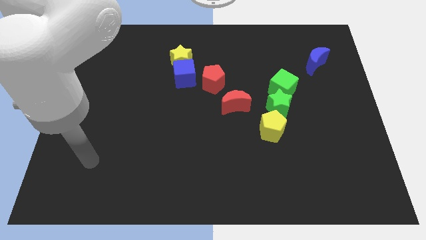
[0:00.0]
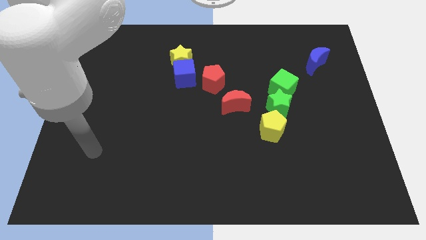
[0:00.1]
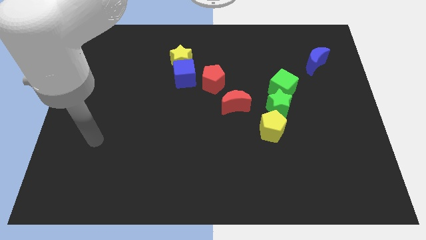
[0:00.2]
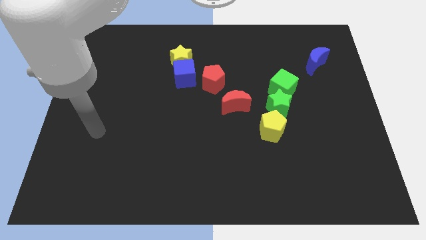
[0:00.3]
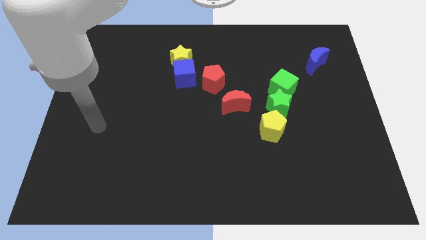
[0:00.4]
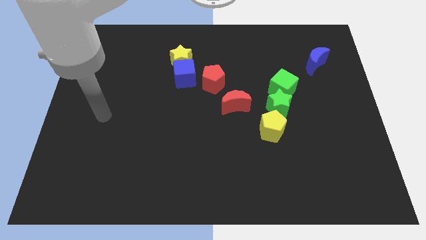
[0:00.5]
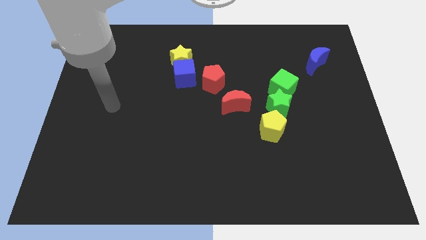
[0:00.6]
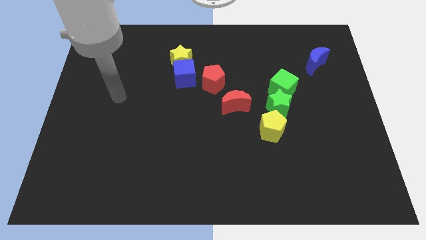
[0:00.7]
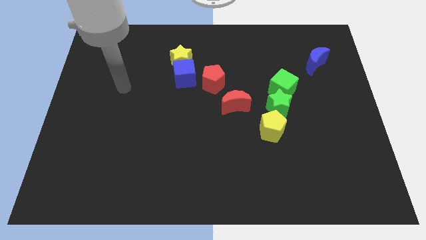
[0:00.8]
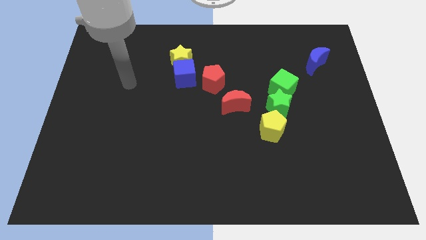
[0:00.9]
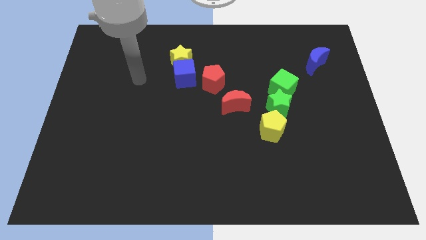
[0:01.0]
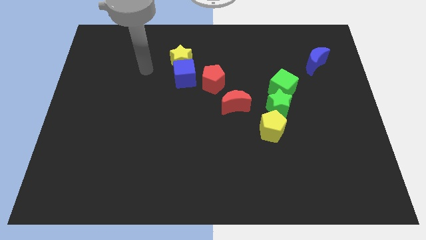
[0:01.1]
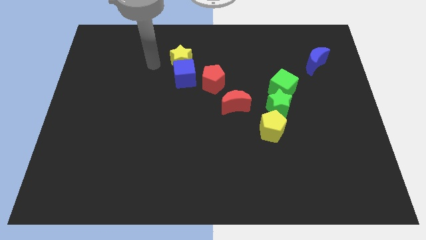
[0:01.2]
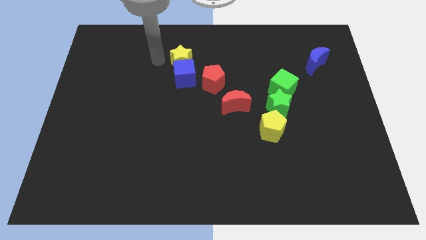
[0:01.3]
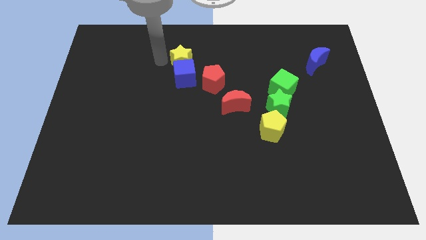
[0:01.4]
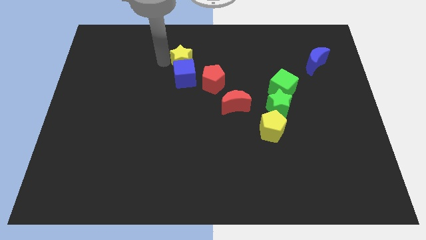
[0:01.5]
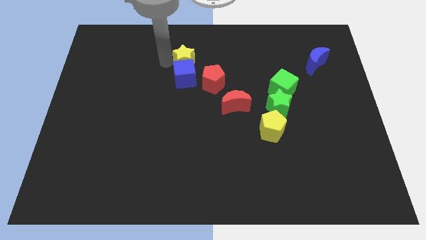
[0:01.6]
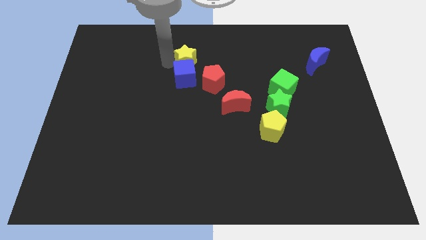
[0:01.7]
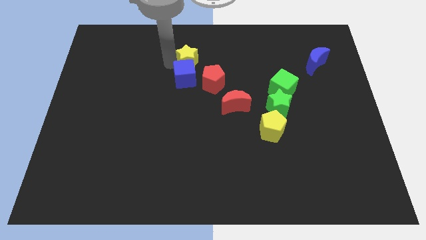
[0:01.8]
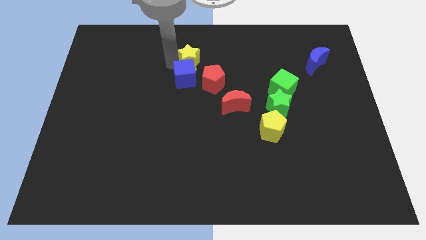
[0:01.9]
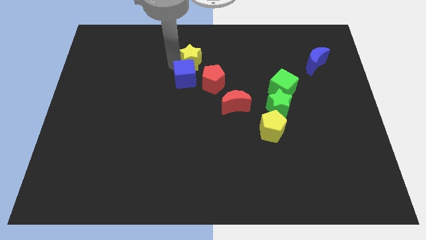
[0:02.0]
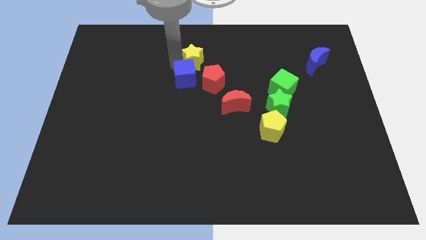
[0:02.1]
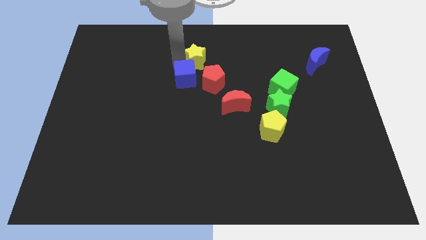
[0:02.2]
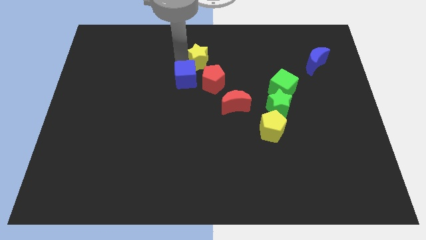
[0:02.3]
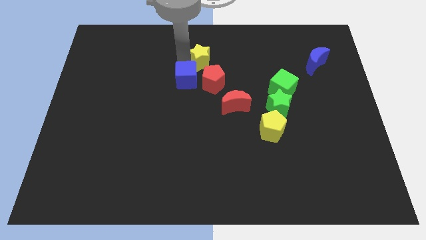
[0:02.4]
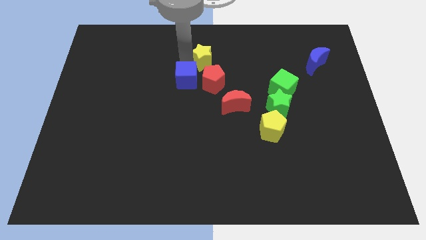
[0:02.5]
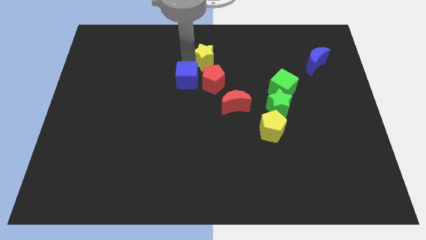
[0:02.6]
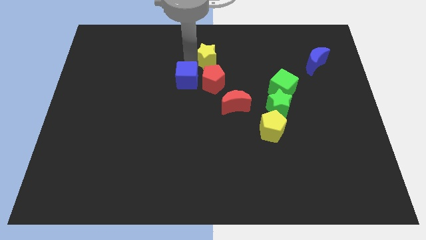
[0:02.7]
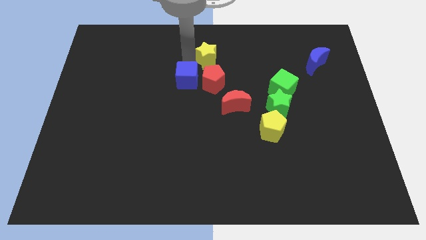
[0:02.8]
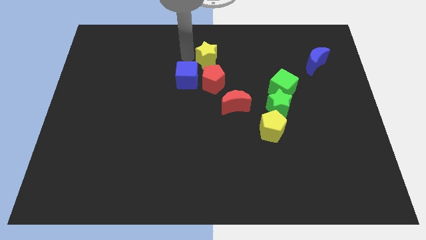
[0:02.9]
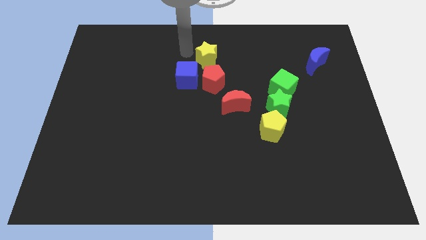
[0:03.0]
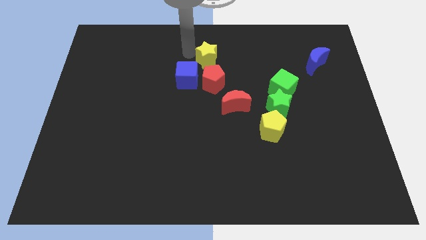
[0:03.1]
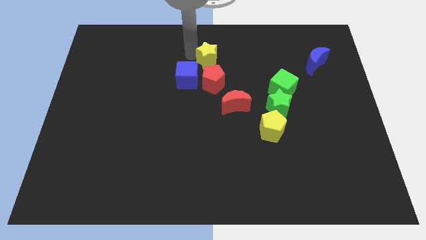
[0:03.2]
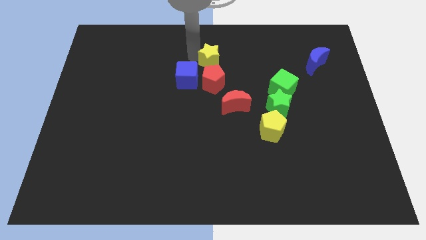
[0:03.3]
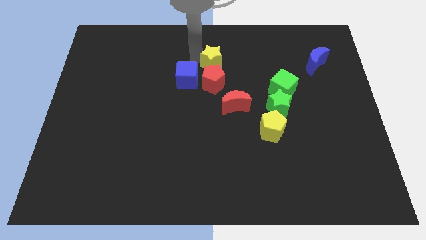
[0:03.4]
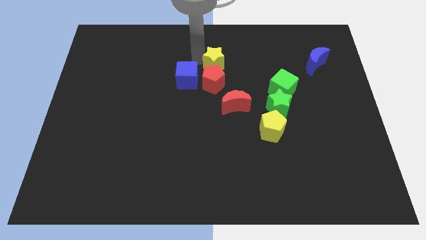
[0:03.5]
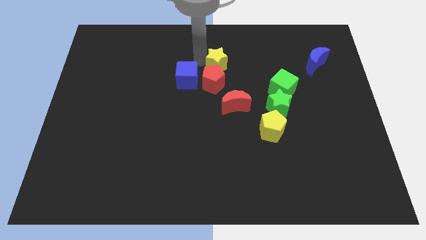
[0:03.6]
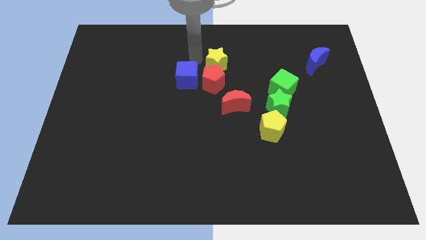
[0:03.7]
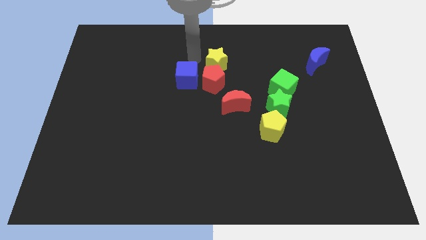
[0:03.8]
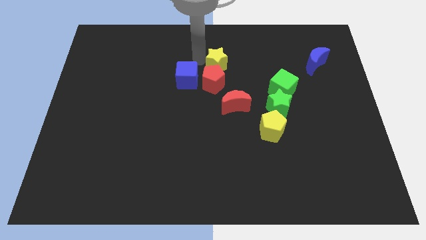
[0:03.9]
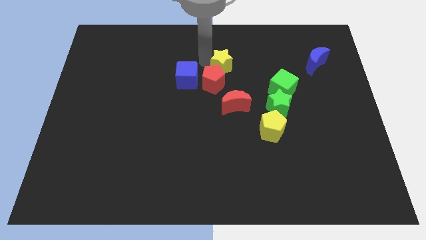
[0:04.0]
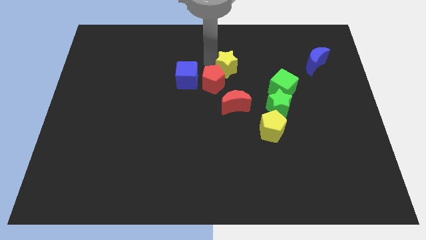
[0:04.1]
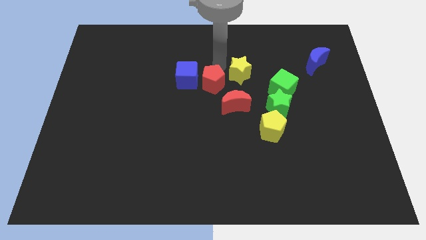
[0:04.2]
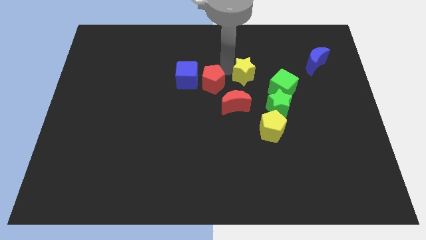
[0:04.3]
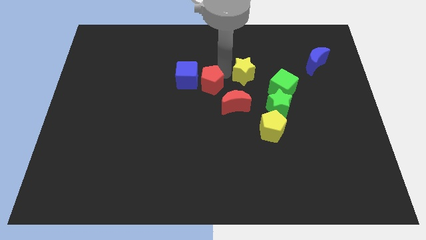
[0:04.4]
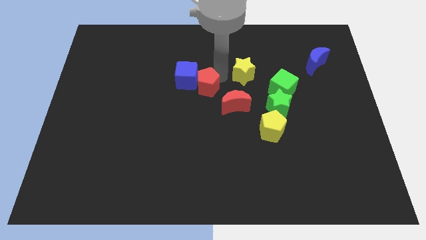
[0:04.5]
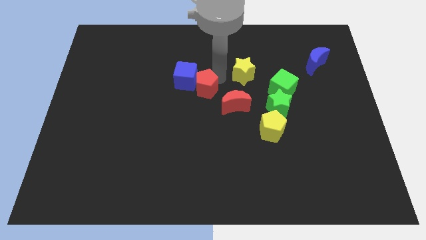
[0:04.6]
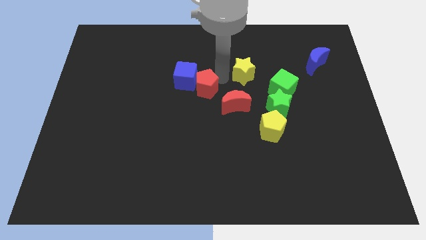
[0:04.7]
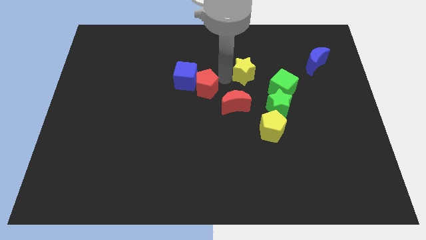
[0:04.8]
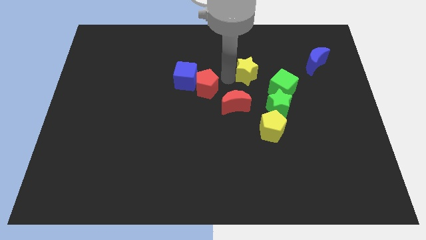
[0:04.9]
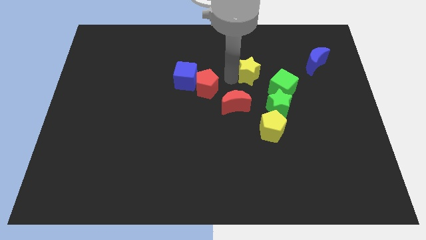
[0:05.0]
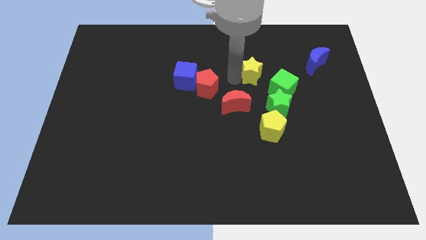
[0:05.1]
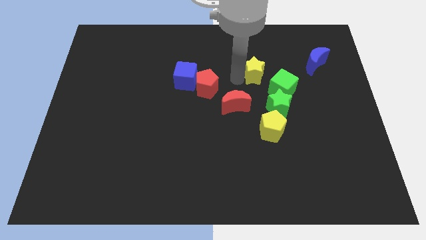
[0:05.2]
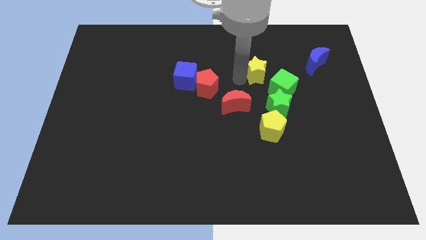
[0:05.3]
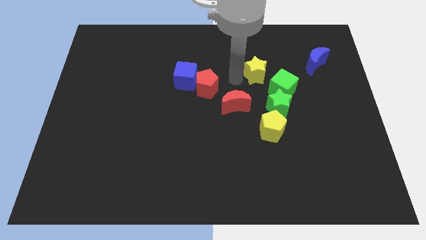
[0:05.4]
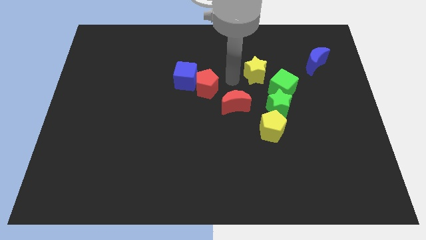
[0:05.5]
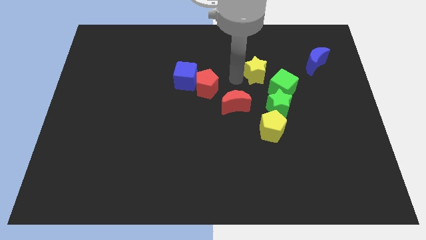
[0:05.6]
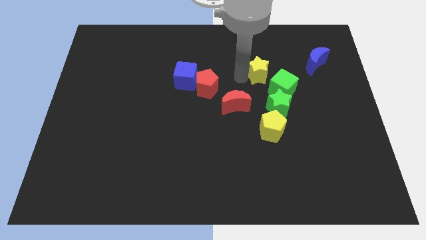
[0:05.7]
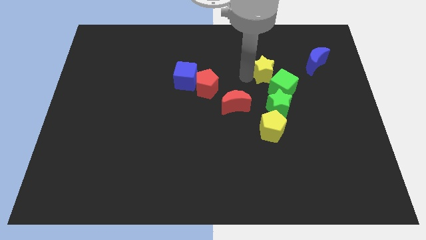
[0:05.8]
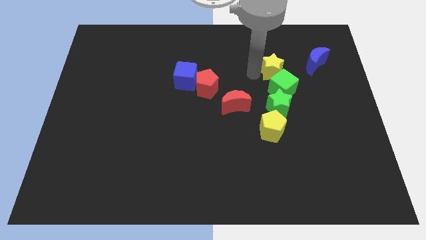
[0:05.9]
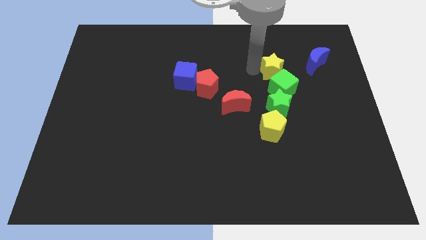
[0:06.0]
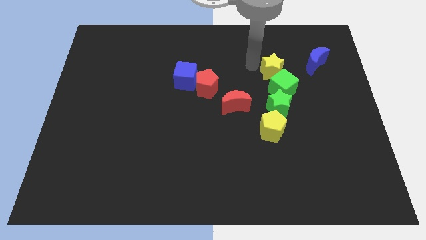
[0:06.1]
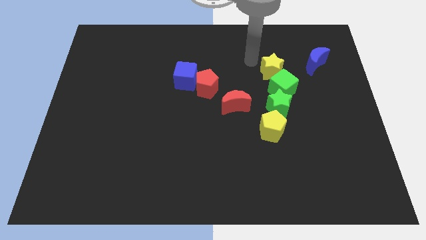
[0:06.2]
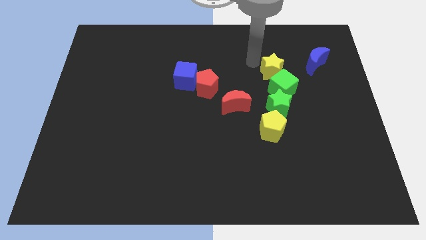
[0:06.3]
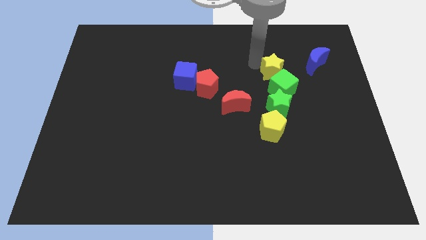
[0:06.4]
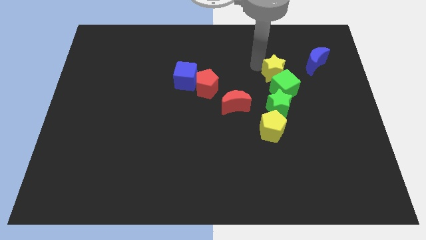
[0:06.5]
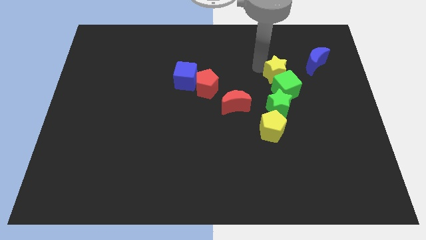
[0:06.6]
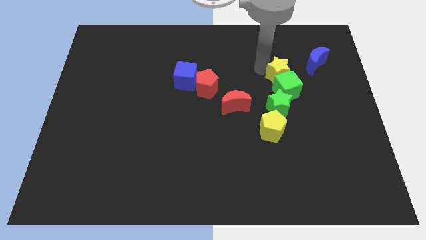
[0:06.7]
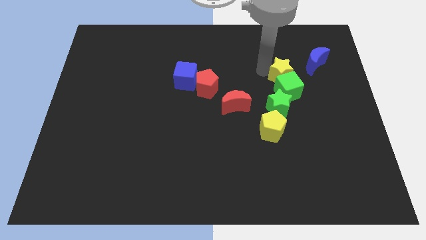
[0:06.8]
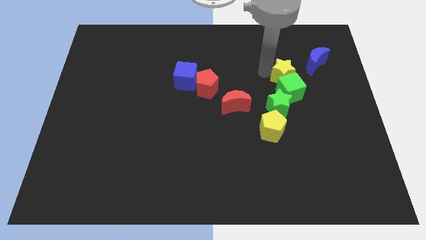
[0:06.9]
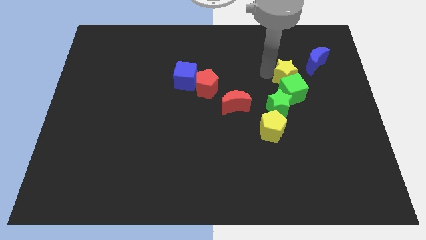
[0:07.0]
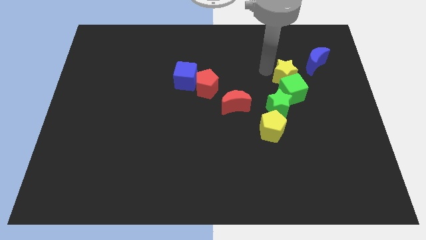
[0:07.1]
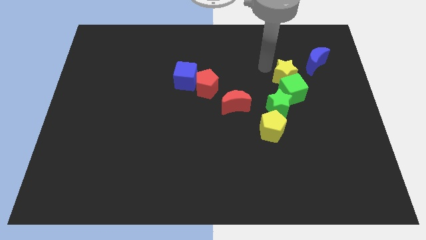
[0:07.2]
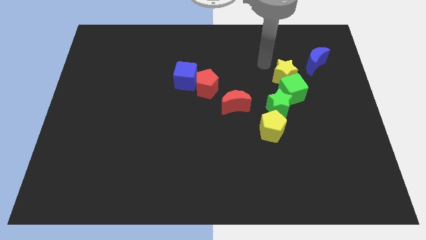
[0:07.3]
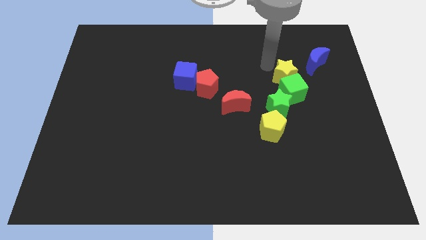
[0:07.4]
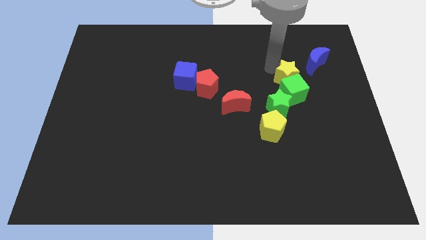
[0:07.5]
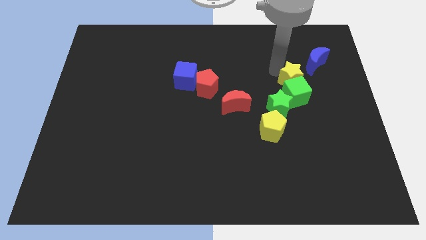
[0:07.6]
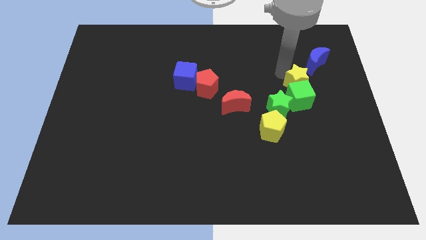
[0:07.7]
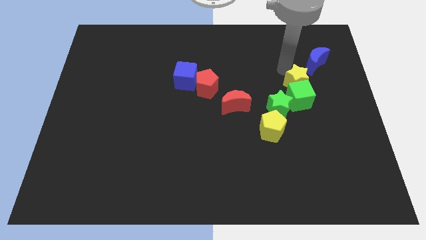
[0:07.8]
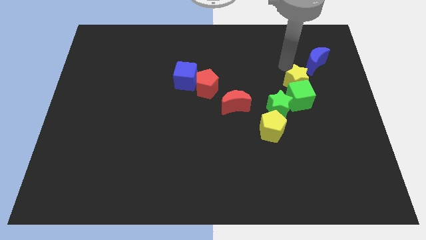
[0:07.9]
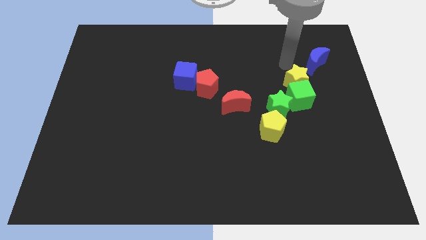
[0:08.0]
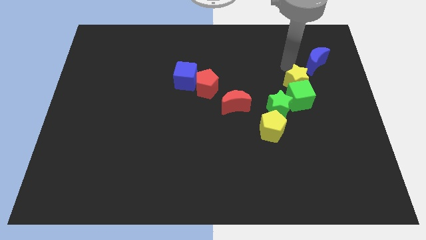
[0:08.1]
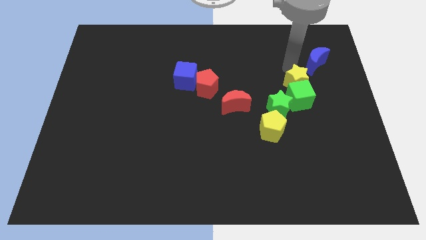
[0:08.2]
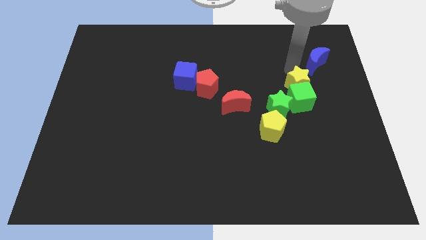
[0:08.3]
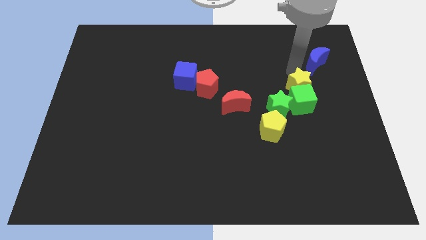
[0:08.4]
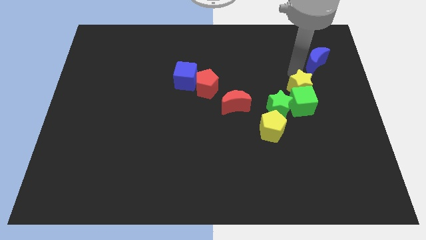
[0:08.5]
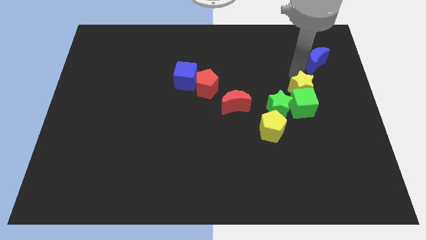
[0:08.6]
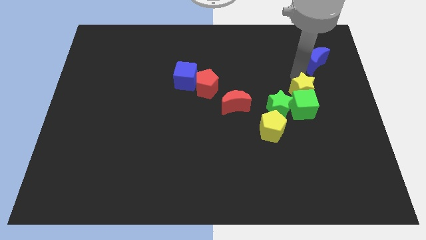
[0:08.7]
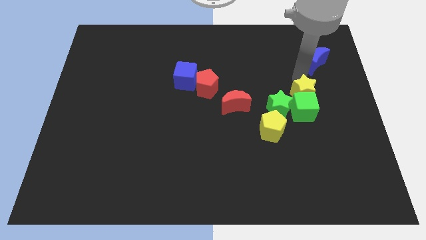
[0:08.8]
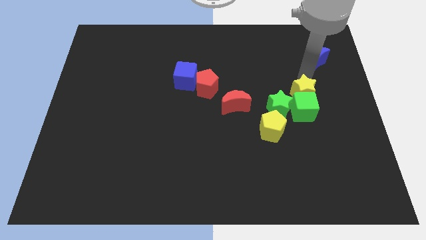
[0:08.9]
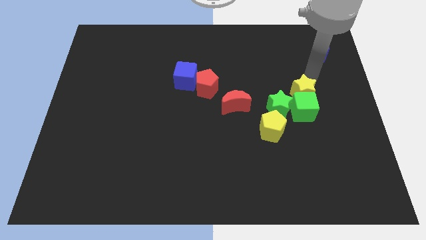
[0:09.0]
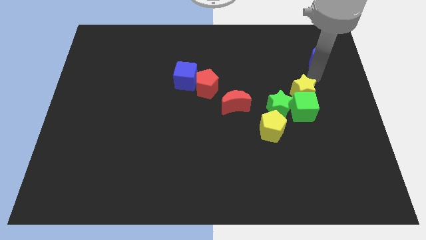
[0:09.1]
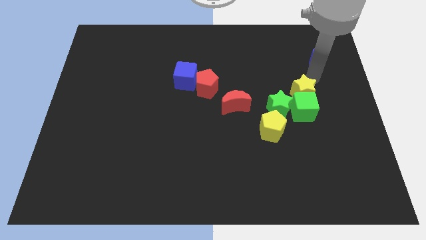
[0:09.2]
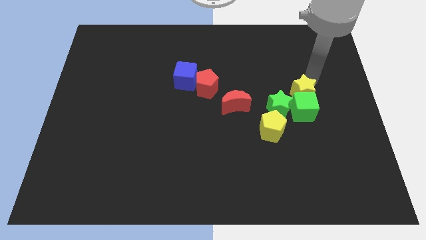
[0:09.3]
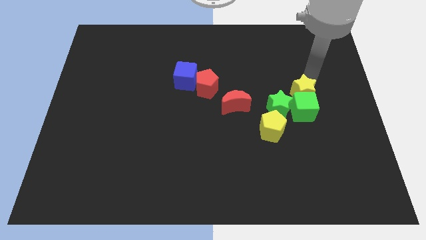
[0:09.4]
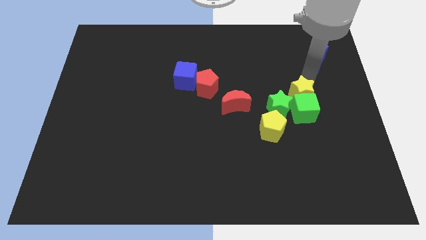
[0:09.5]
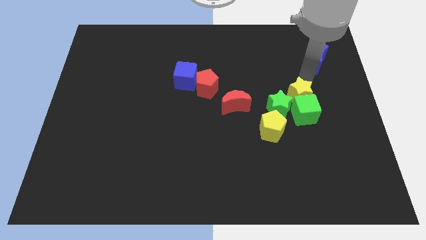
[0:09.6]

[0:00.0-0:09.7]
move the yellow star to the top right side of the yellow pentagon
